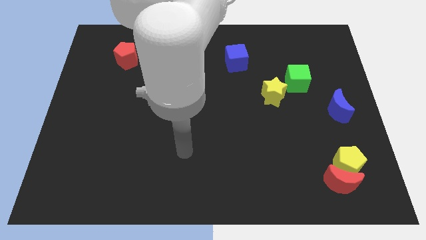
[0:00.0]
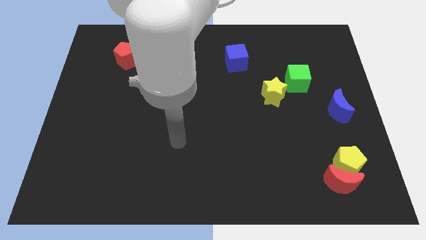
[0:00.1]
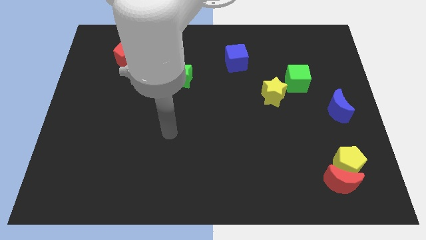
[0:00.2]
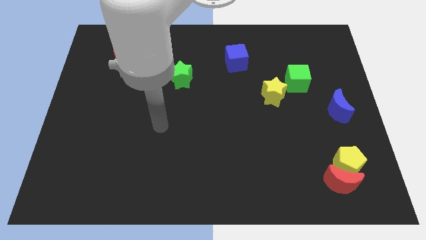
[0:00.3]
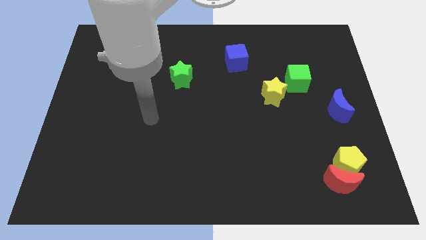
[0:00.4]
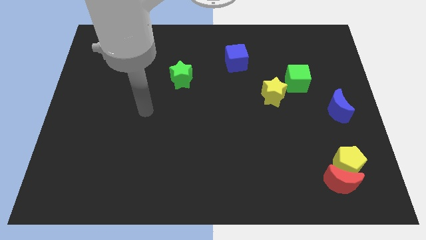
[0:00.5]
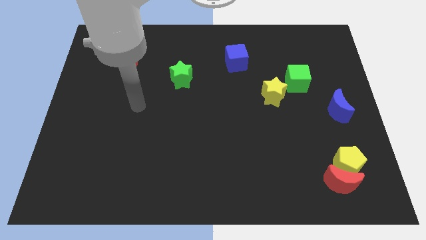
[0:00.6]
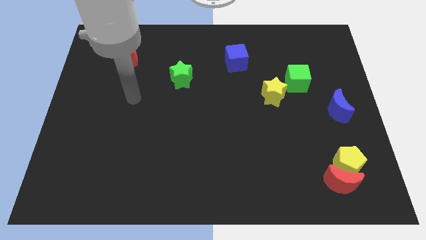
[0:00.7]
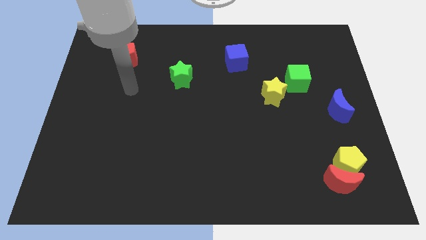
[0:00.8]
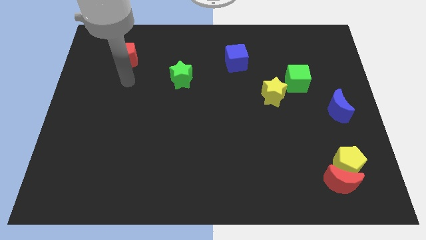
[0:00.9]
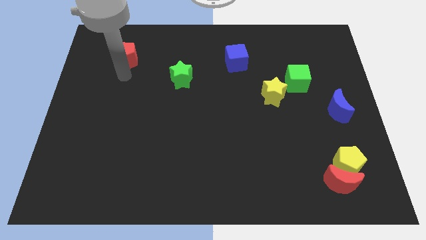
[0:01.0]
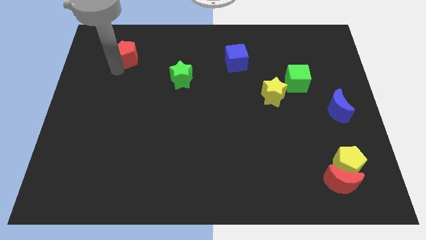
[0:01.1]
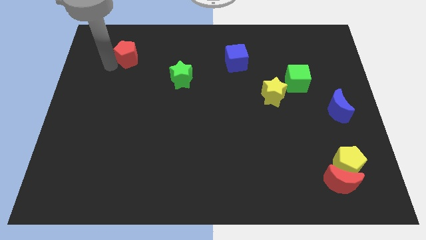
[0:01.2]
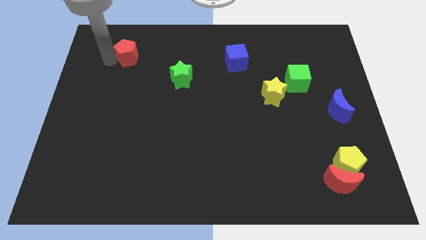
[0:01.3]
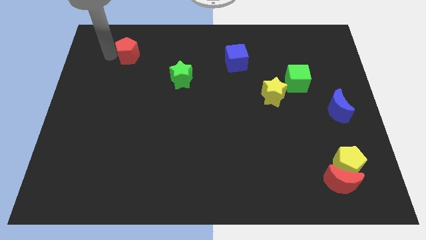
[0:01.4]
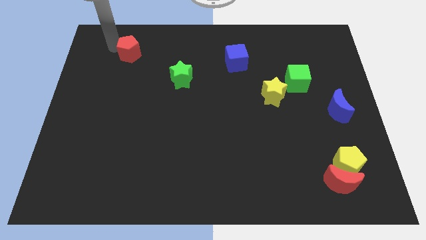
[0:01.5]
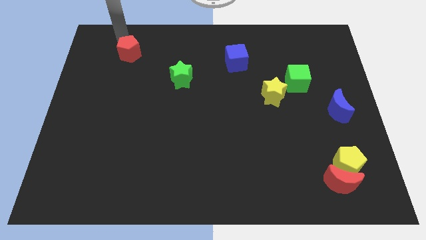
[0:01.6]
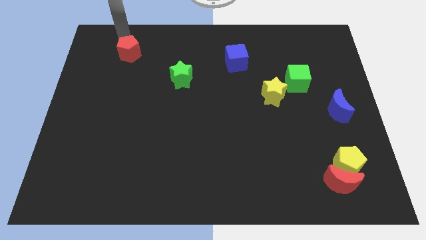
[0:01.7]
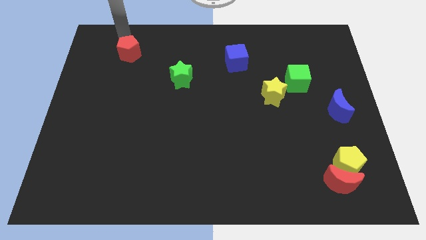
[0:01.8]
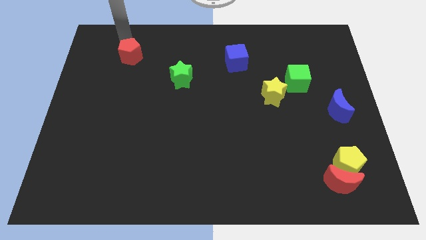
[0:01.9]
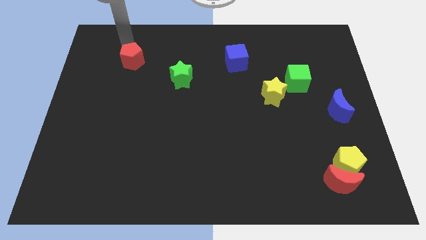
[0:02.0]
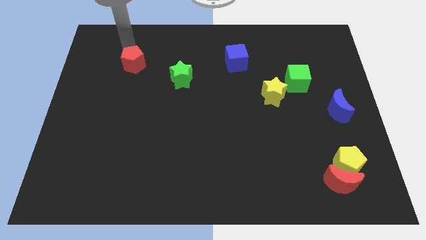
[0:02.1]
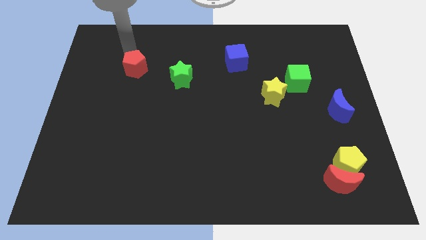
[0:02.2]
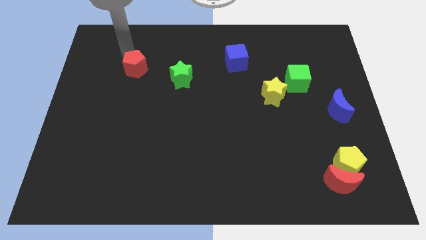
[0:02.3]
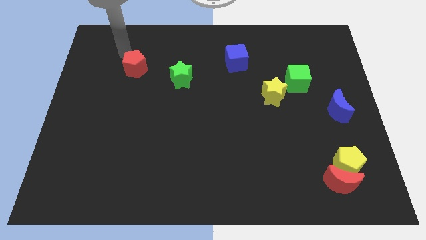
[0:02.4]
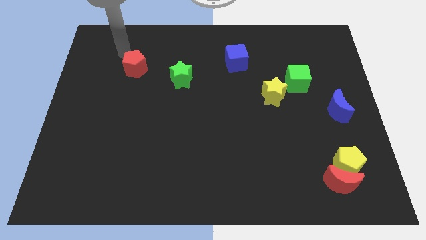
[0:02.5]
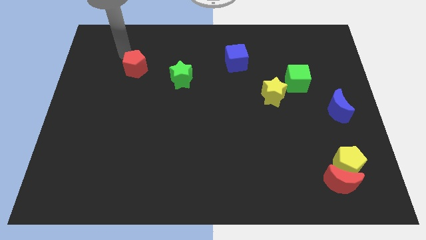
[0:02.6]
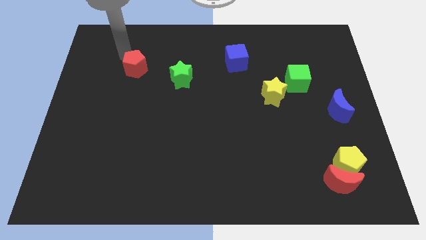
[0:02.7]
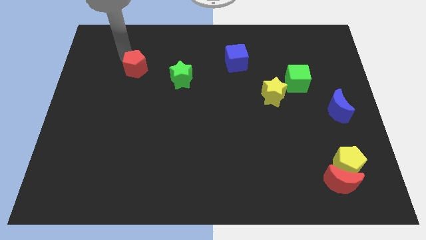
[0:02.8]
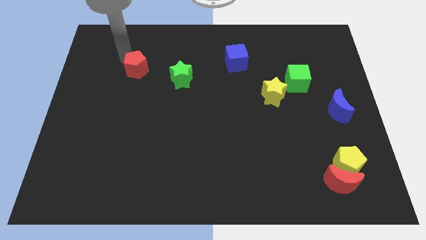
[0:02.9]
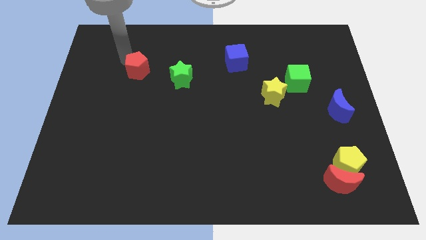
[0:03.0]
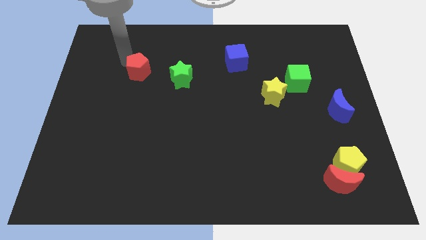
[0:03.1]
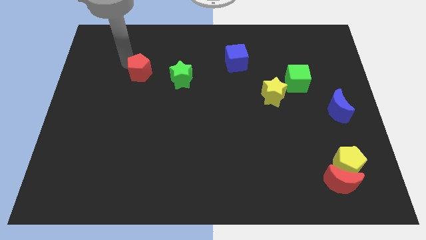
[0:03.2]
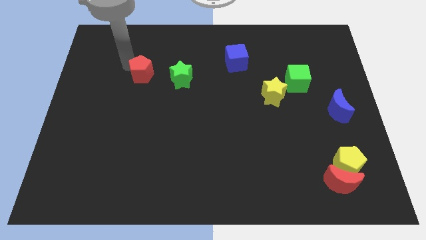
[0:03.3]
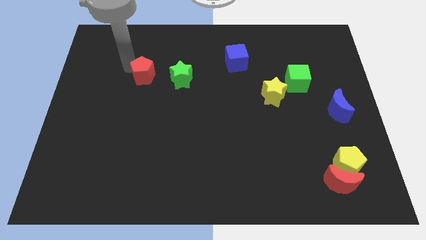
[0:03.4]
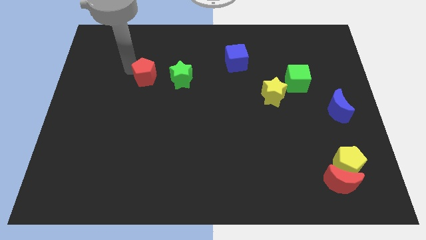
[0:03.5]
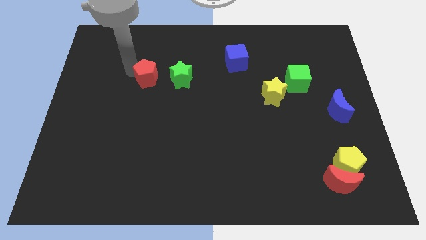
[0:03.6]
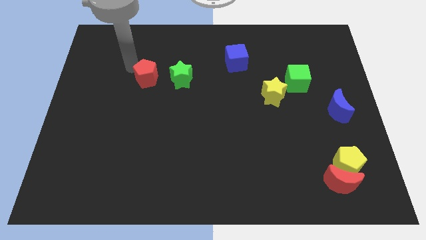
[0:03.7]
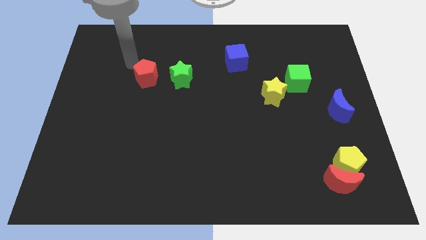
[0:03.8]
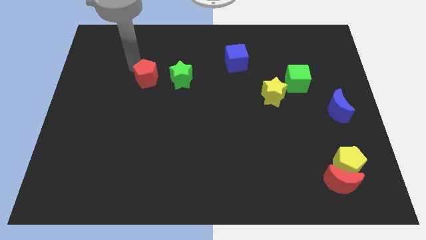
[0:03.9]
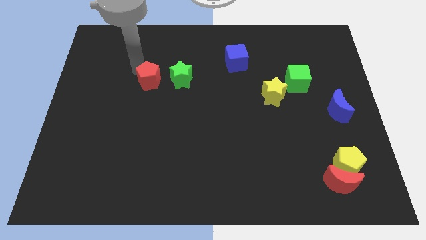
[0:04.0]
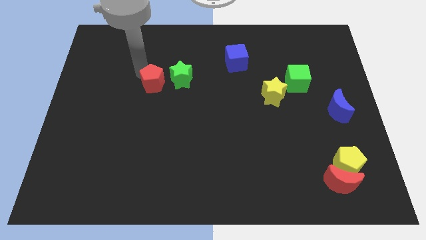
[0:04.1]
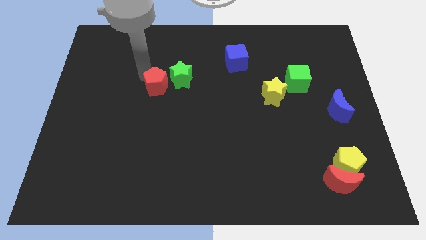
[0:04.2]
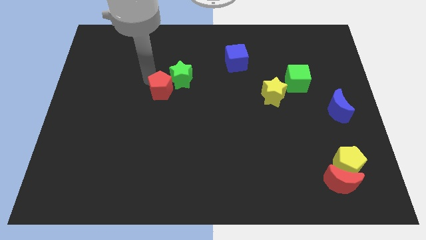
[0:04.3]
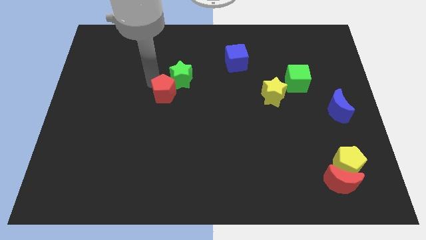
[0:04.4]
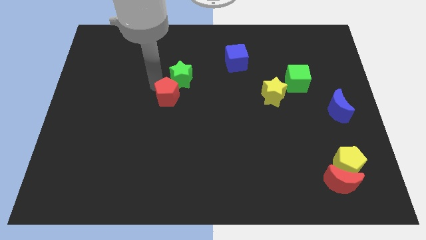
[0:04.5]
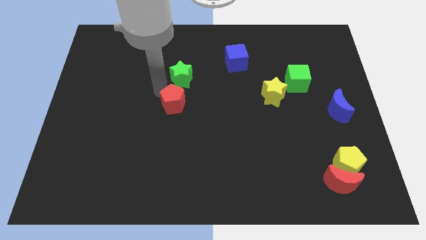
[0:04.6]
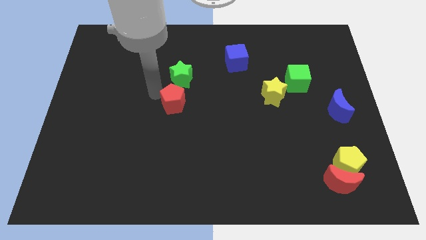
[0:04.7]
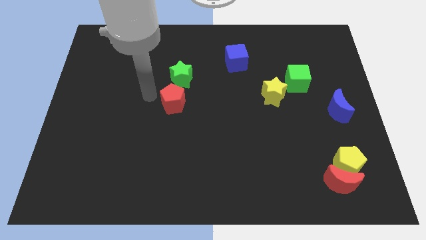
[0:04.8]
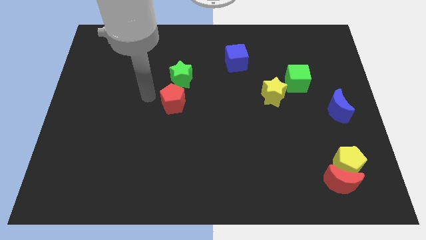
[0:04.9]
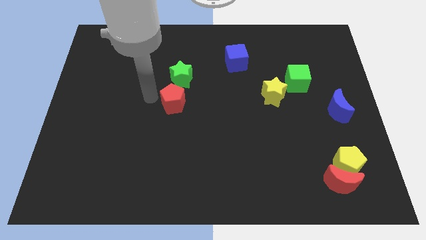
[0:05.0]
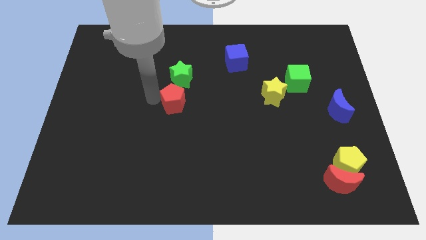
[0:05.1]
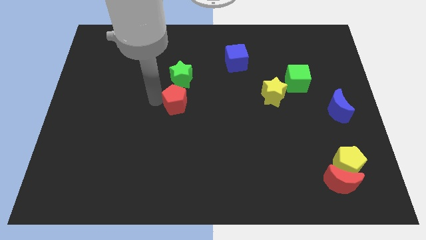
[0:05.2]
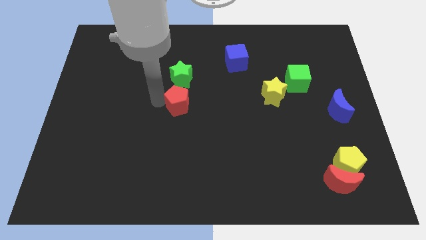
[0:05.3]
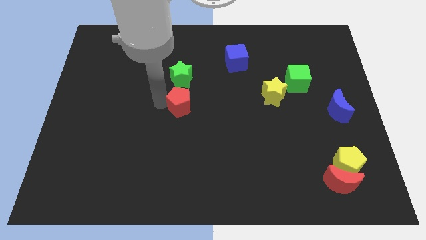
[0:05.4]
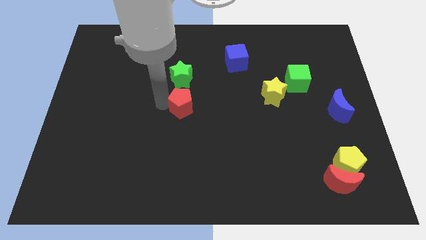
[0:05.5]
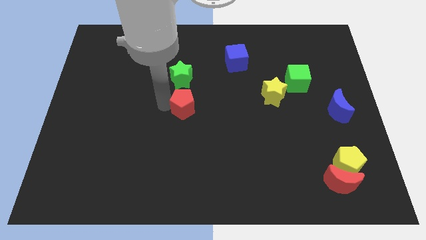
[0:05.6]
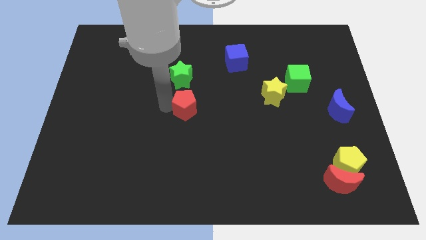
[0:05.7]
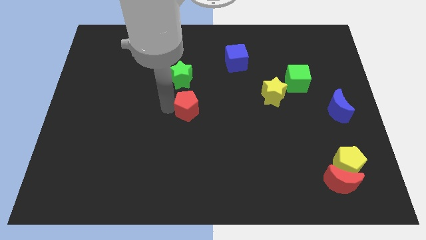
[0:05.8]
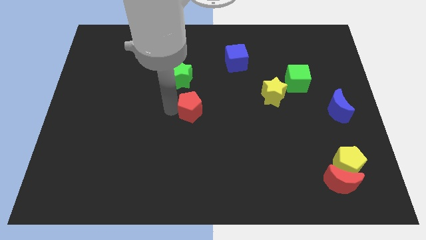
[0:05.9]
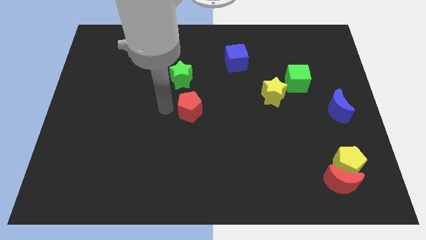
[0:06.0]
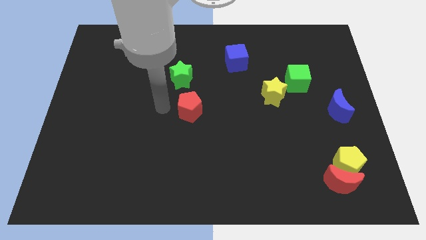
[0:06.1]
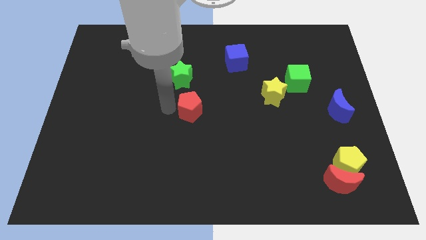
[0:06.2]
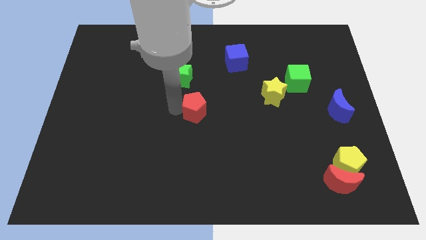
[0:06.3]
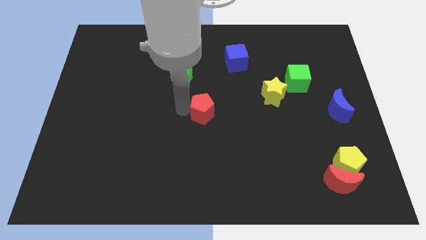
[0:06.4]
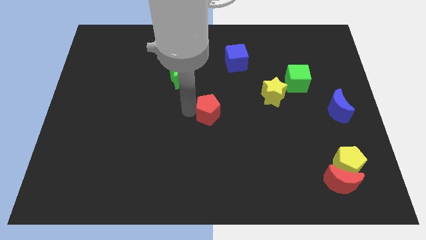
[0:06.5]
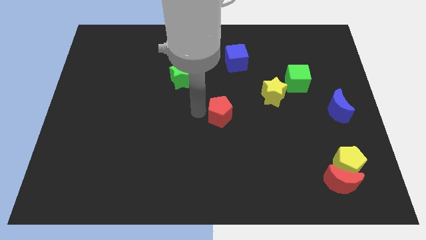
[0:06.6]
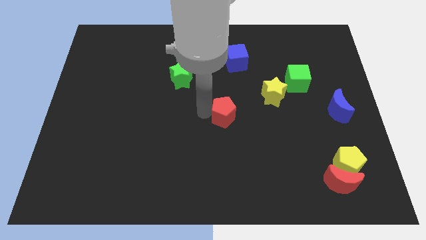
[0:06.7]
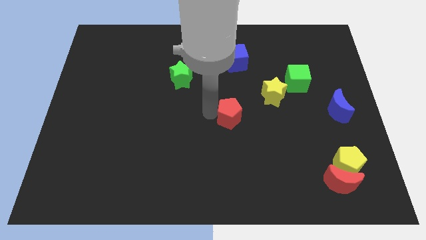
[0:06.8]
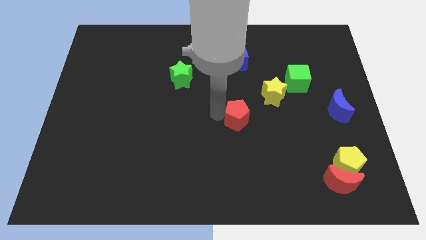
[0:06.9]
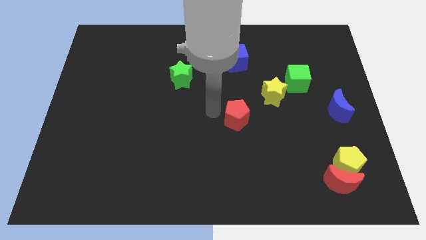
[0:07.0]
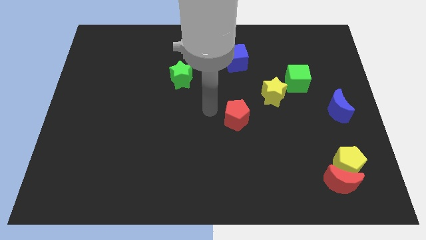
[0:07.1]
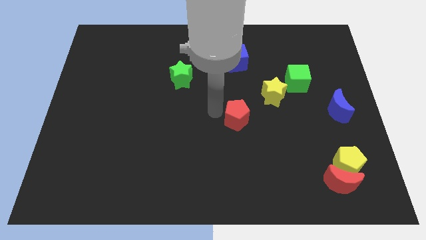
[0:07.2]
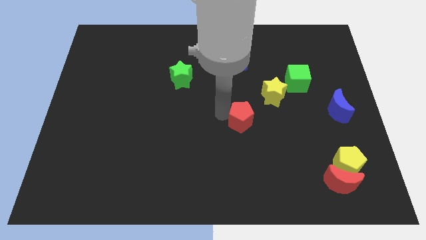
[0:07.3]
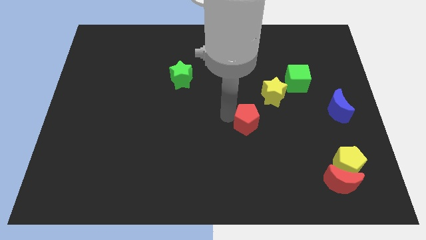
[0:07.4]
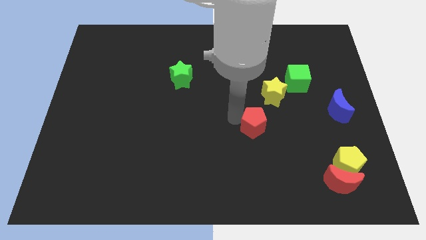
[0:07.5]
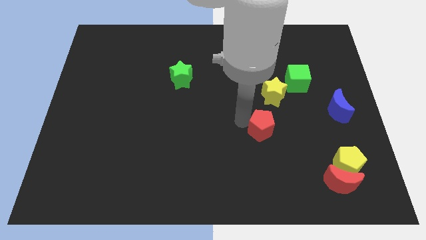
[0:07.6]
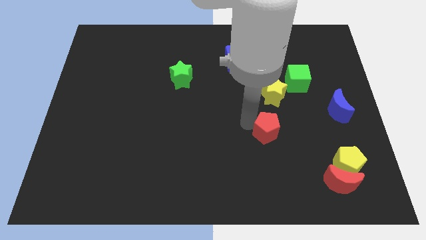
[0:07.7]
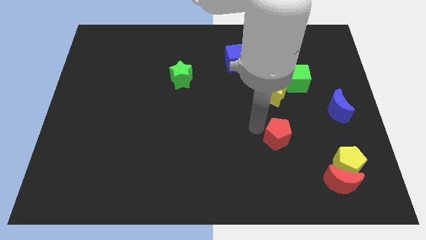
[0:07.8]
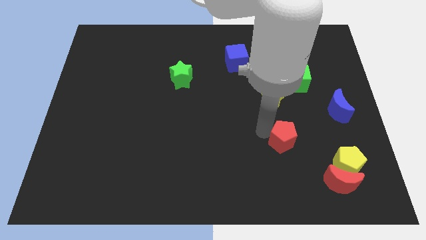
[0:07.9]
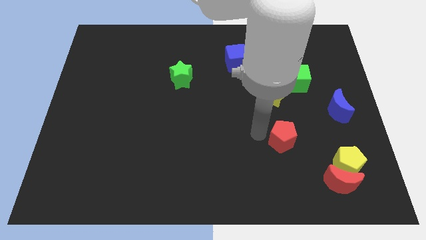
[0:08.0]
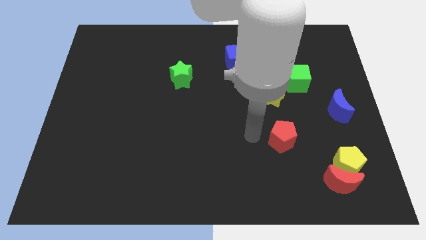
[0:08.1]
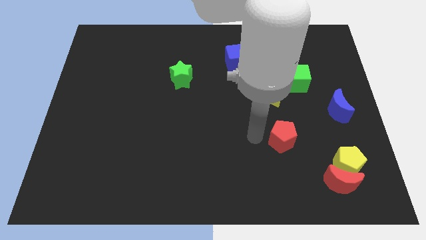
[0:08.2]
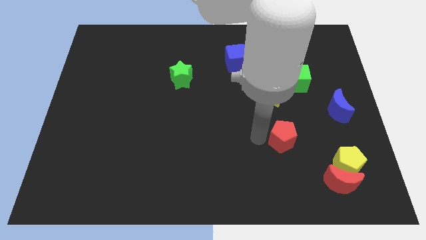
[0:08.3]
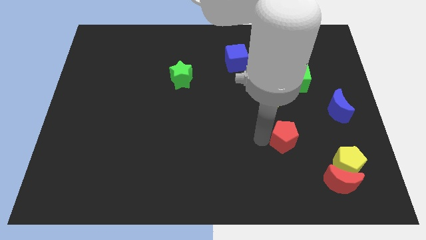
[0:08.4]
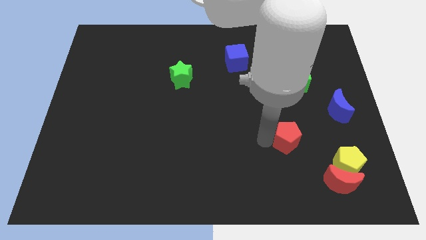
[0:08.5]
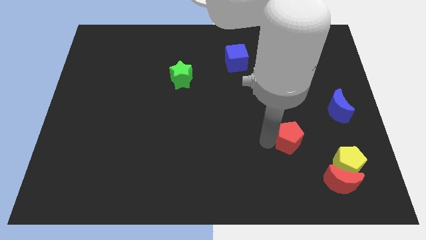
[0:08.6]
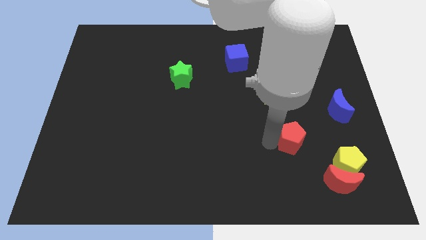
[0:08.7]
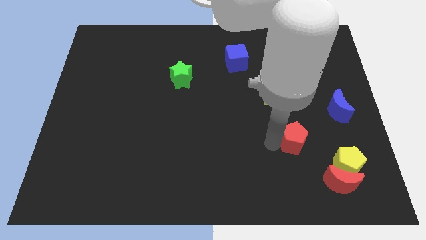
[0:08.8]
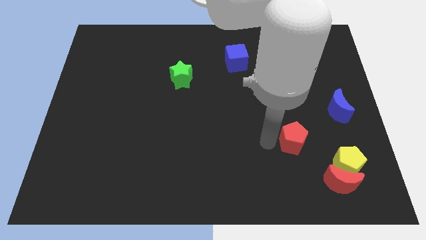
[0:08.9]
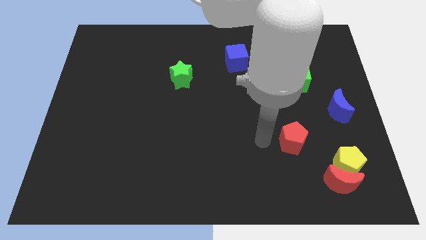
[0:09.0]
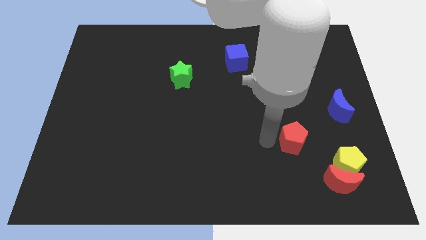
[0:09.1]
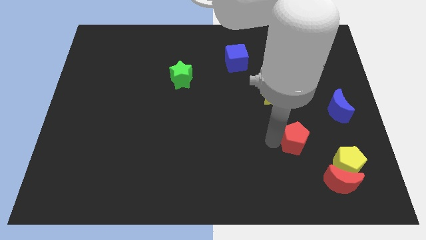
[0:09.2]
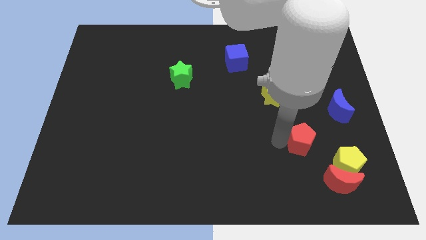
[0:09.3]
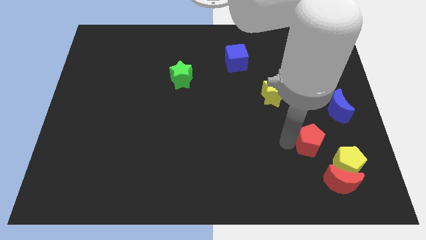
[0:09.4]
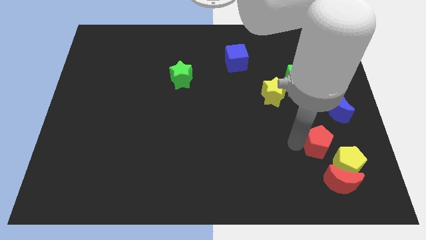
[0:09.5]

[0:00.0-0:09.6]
push the red pentagon to the top of the red moon
